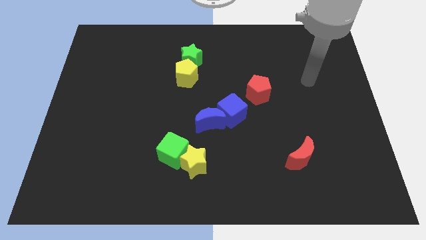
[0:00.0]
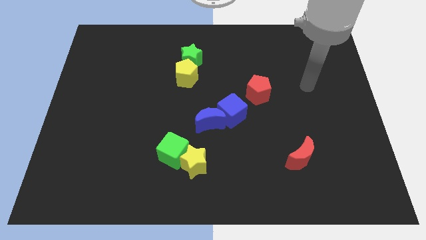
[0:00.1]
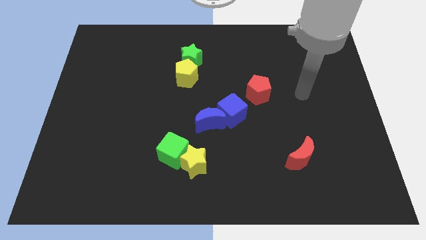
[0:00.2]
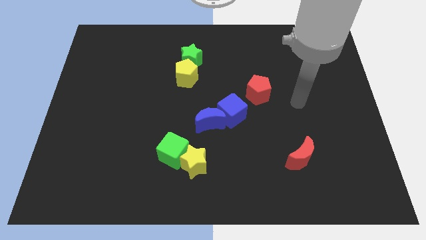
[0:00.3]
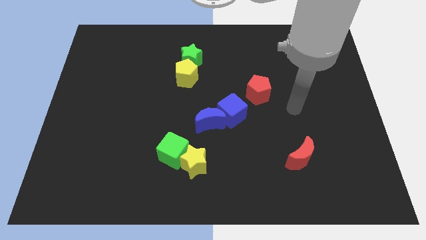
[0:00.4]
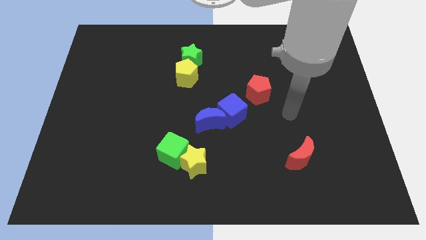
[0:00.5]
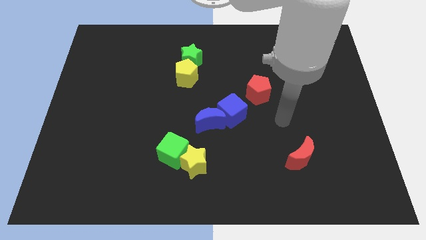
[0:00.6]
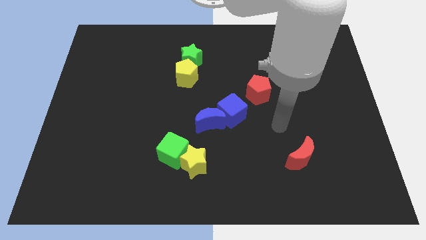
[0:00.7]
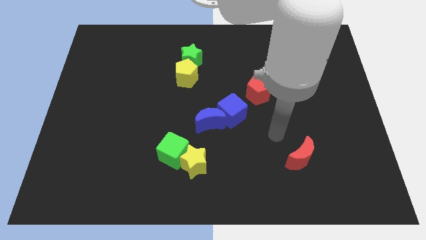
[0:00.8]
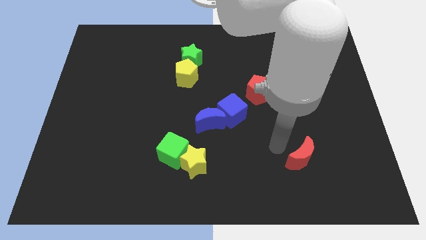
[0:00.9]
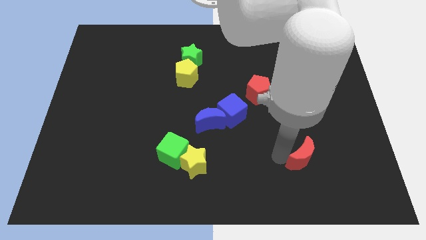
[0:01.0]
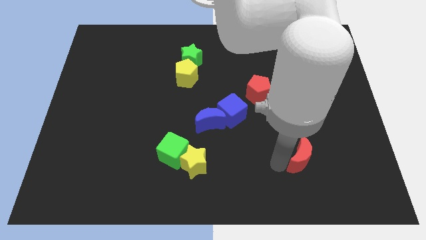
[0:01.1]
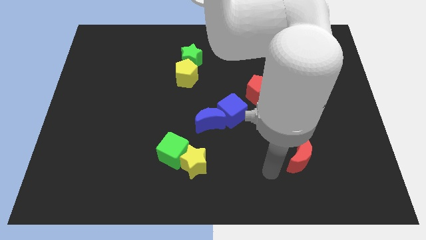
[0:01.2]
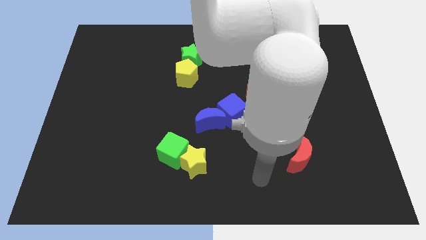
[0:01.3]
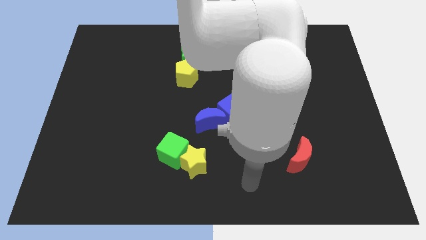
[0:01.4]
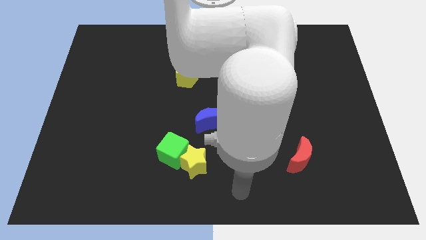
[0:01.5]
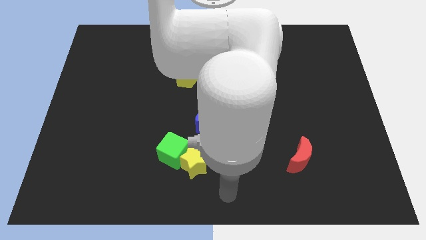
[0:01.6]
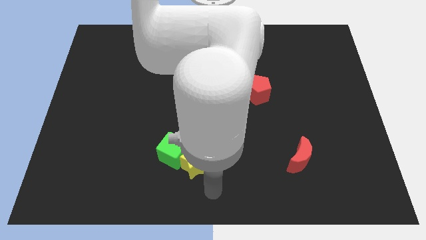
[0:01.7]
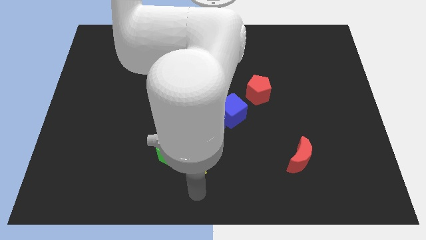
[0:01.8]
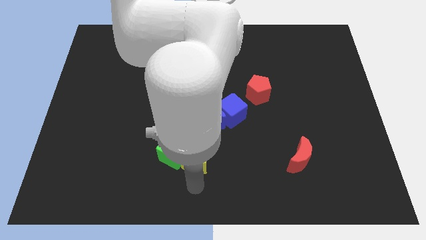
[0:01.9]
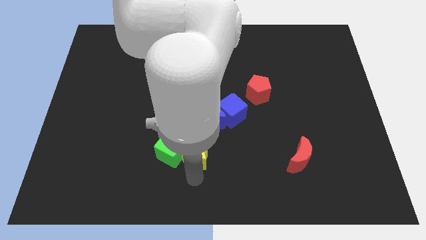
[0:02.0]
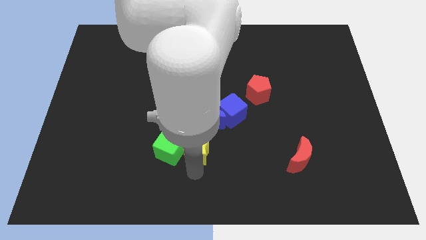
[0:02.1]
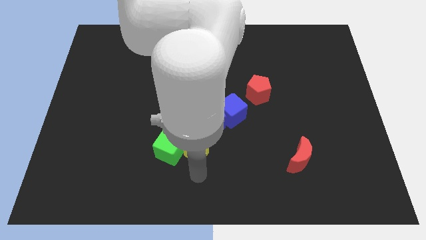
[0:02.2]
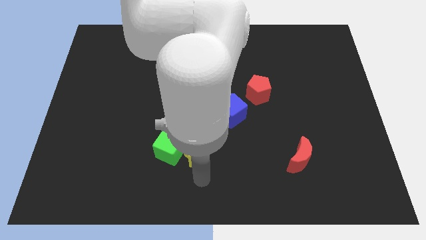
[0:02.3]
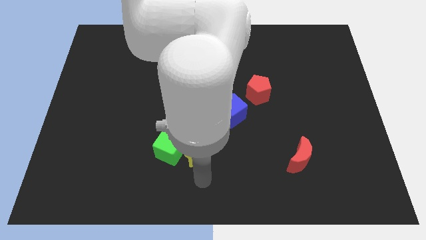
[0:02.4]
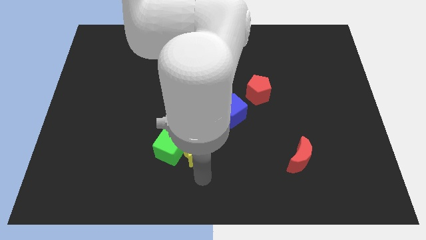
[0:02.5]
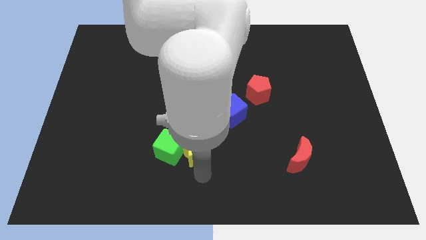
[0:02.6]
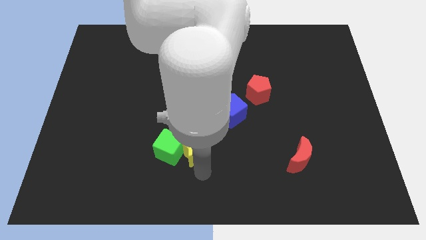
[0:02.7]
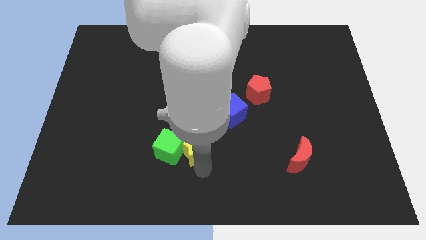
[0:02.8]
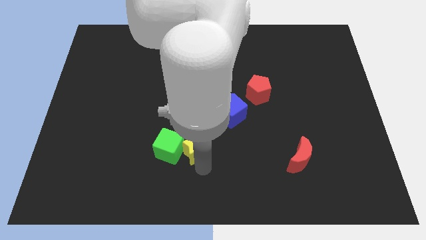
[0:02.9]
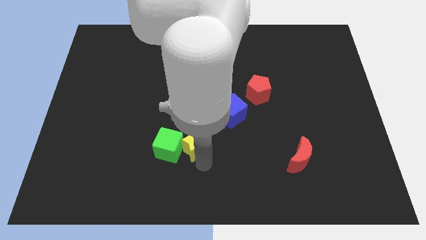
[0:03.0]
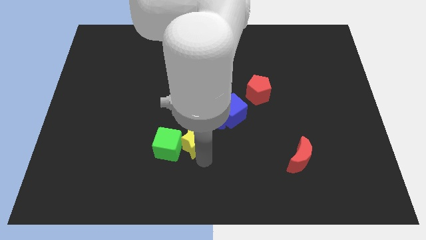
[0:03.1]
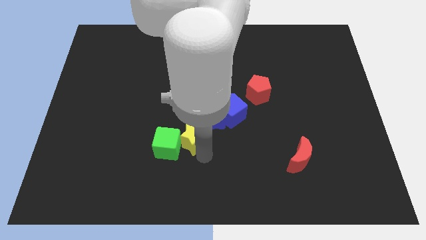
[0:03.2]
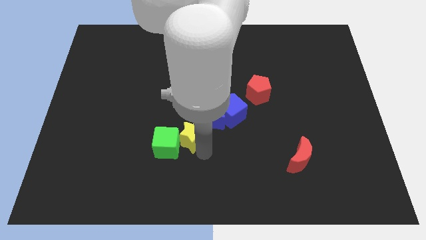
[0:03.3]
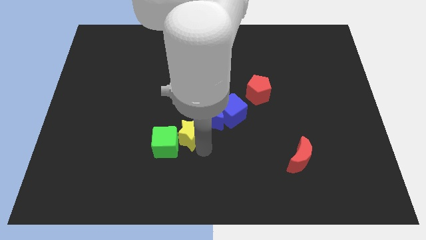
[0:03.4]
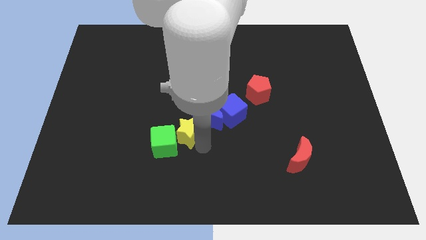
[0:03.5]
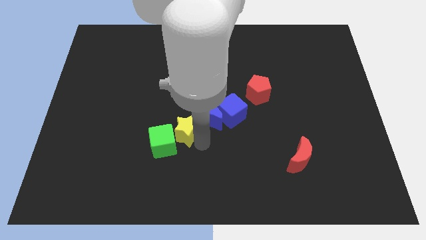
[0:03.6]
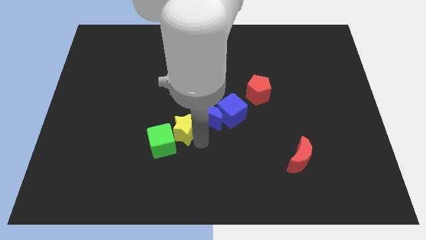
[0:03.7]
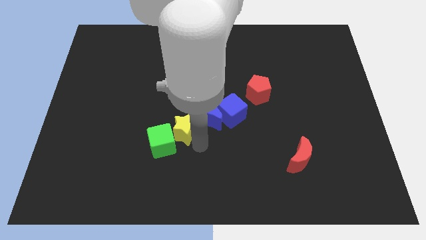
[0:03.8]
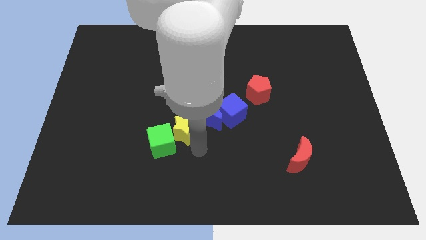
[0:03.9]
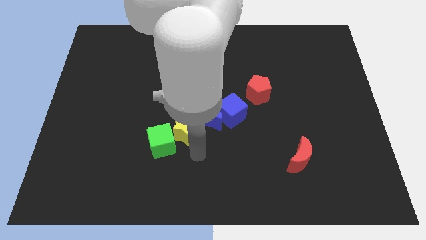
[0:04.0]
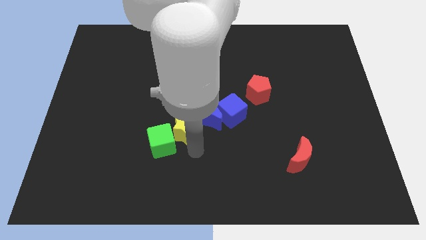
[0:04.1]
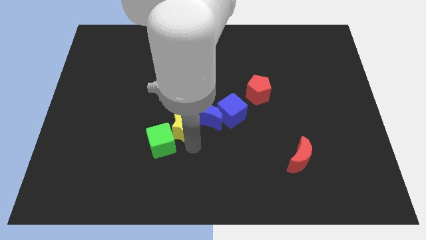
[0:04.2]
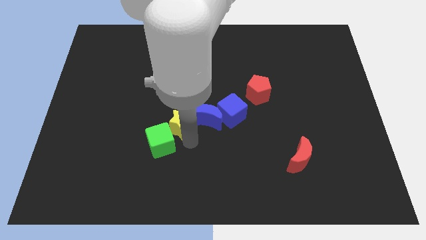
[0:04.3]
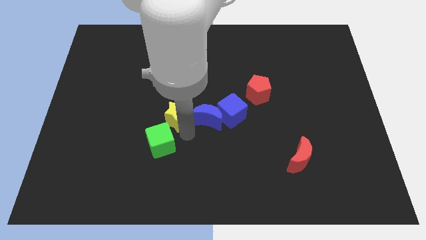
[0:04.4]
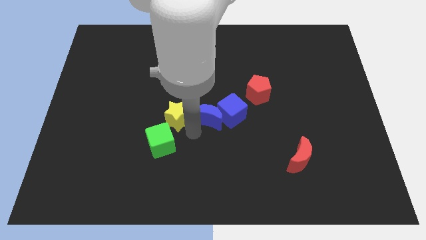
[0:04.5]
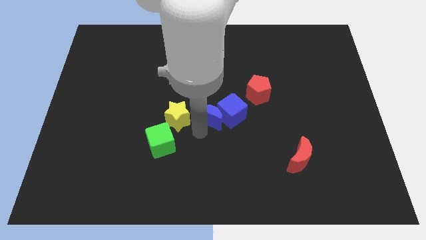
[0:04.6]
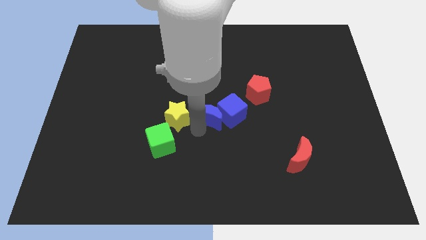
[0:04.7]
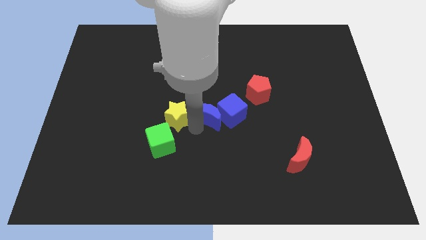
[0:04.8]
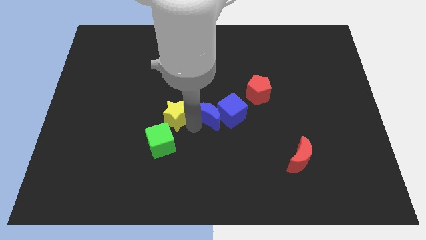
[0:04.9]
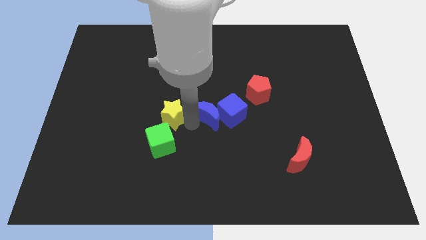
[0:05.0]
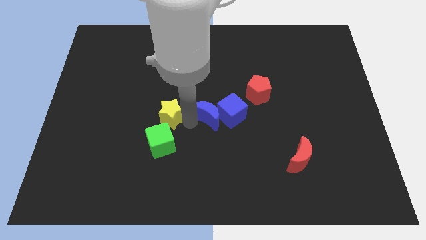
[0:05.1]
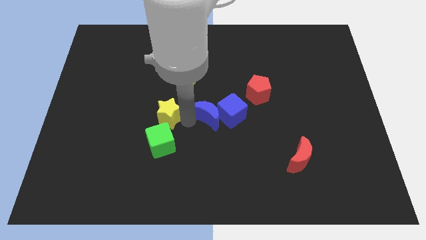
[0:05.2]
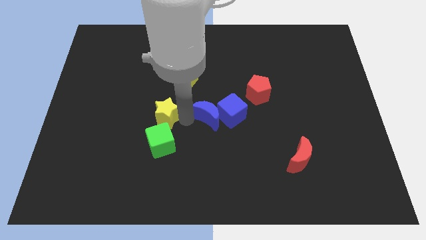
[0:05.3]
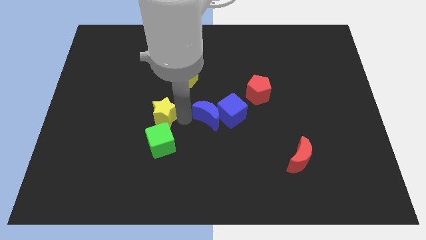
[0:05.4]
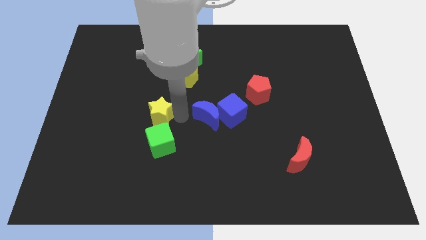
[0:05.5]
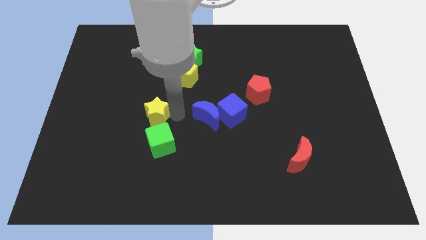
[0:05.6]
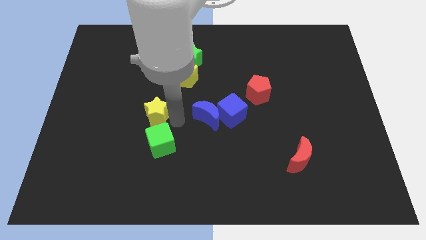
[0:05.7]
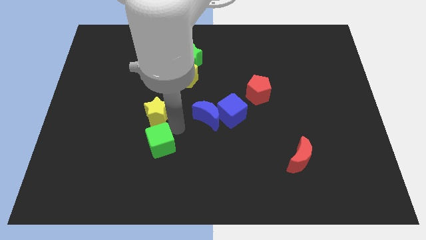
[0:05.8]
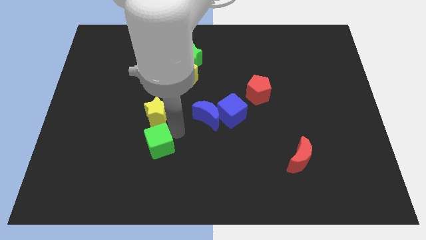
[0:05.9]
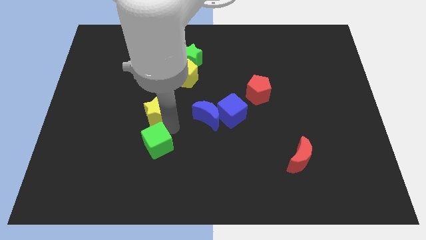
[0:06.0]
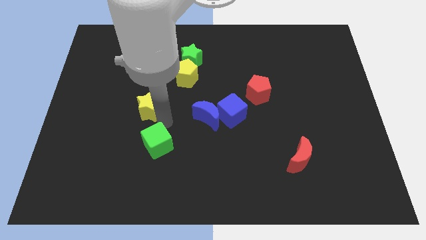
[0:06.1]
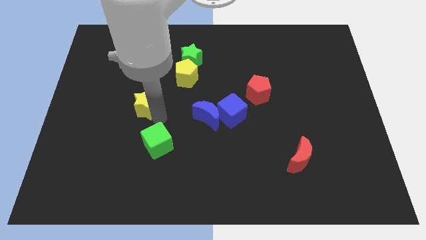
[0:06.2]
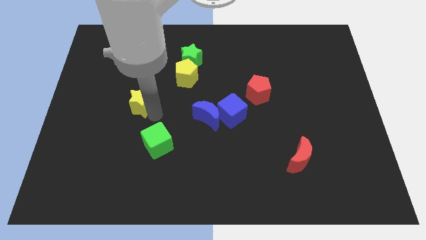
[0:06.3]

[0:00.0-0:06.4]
push the yellow star upwards and to the left

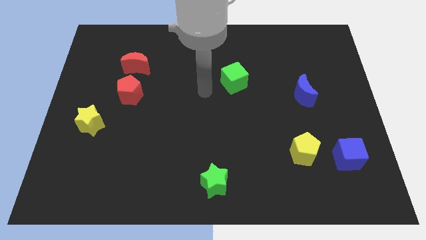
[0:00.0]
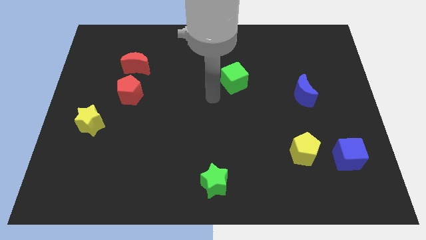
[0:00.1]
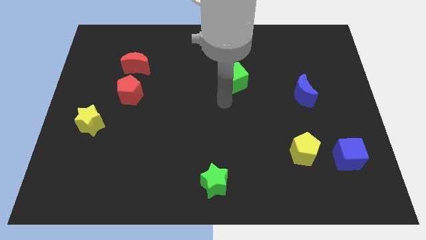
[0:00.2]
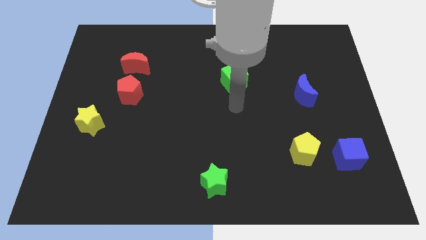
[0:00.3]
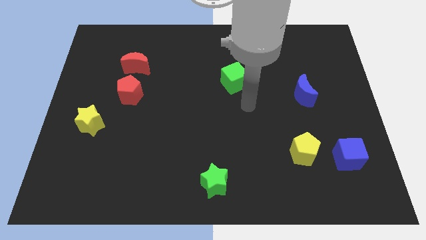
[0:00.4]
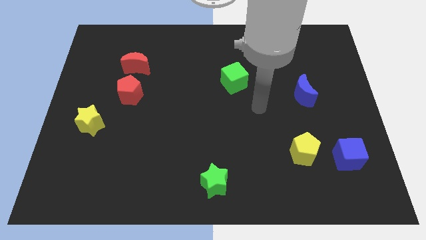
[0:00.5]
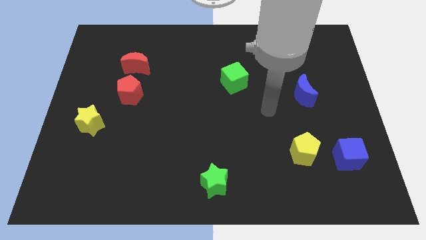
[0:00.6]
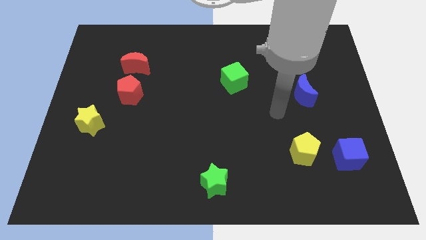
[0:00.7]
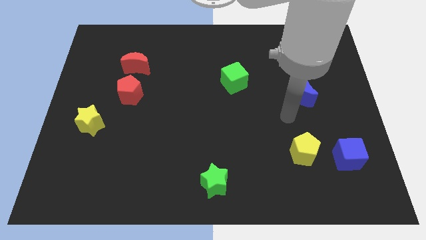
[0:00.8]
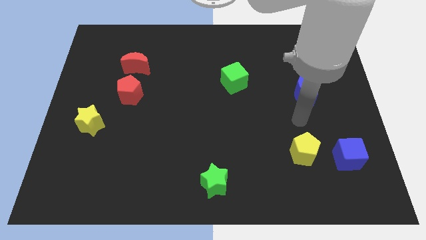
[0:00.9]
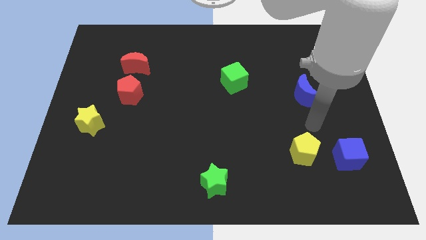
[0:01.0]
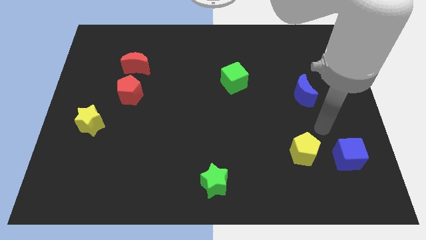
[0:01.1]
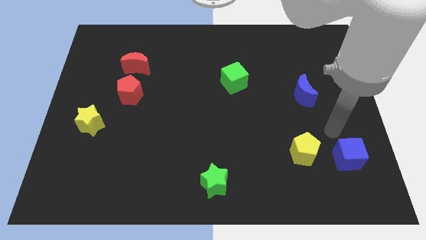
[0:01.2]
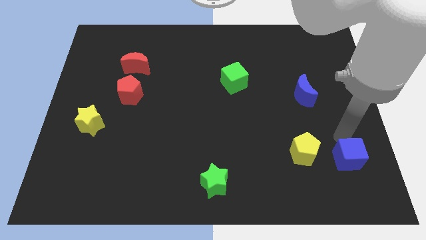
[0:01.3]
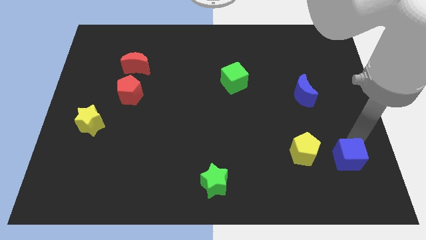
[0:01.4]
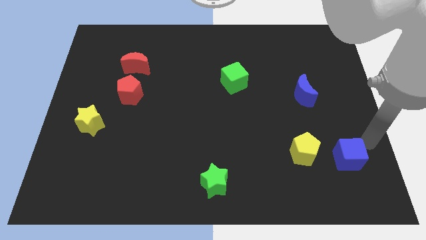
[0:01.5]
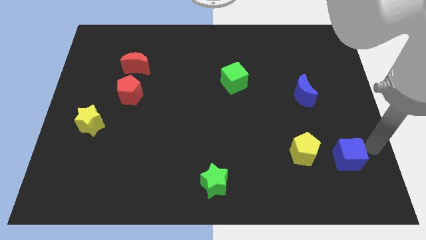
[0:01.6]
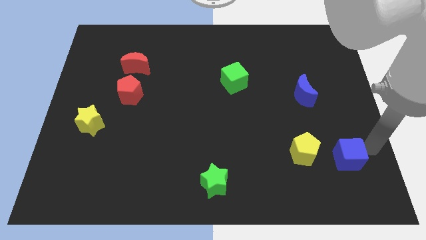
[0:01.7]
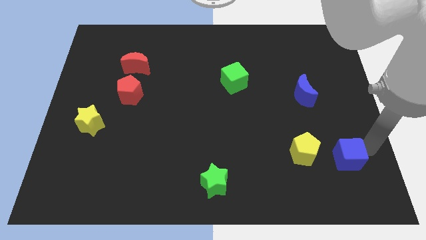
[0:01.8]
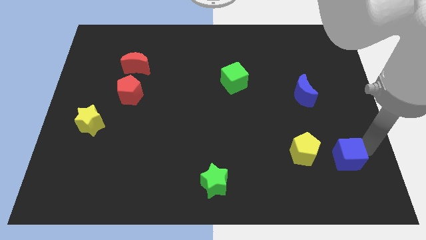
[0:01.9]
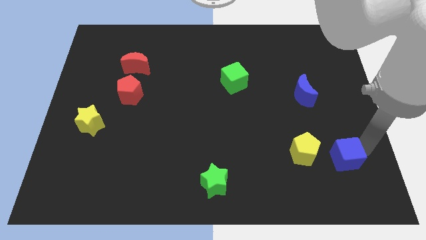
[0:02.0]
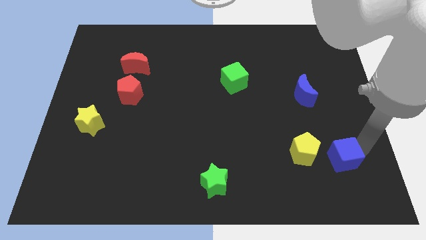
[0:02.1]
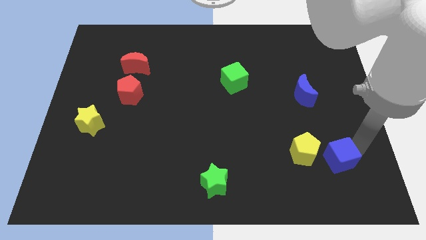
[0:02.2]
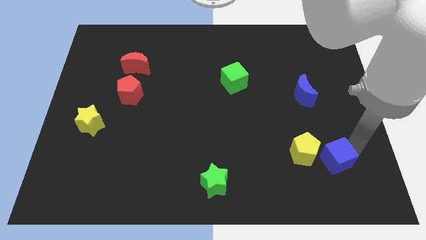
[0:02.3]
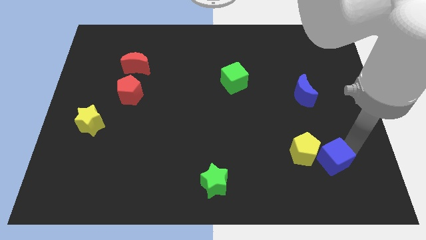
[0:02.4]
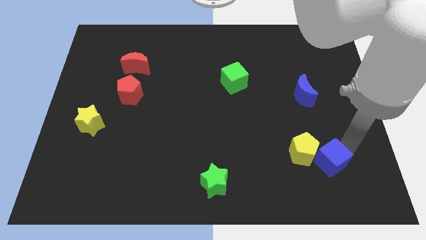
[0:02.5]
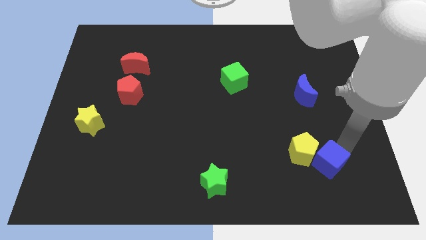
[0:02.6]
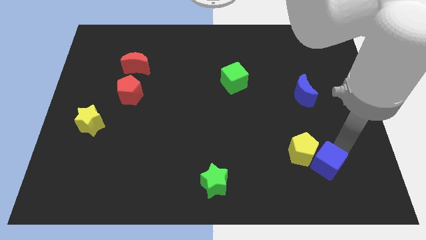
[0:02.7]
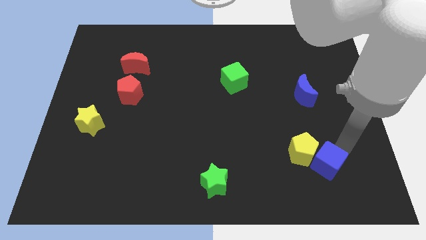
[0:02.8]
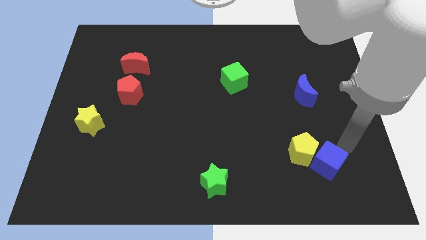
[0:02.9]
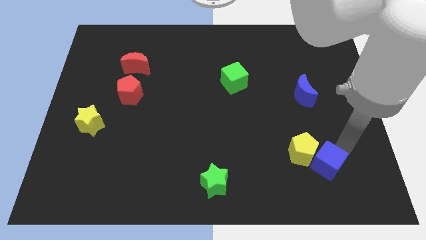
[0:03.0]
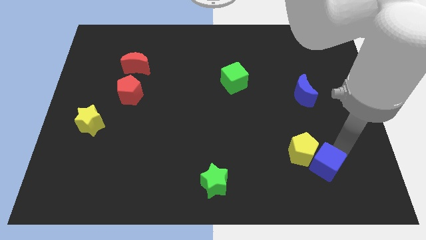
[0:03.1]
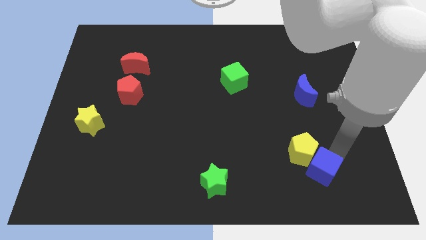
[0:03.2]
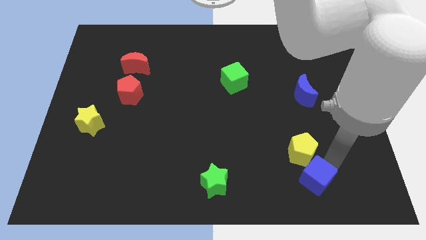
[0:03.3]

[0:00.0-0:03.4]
slide the blue cube left slightly
